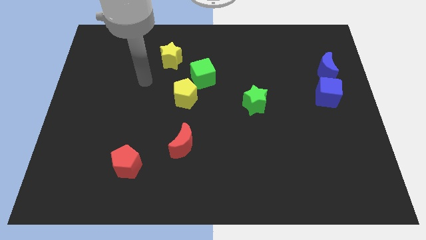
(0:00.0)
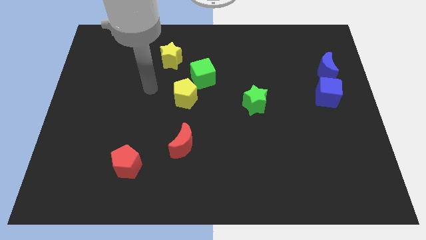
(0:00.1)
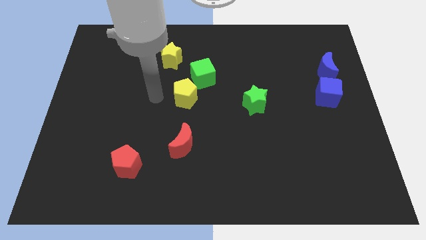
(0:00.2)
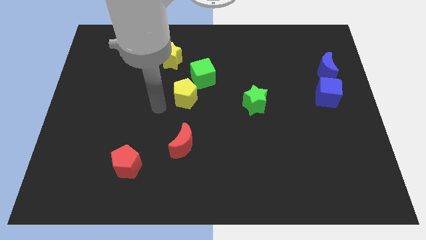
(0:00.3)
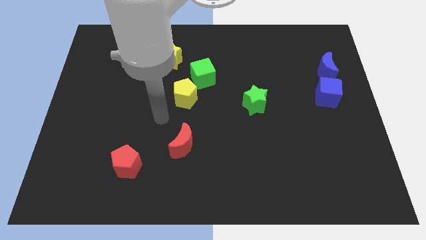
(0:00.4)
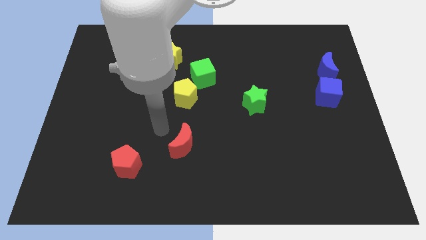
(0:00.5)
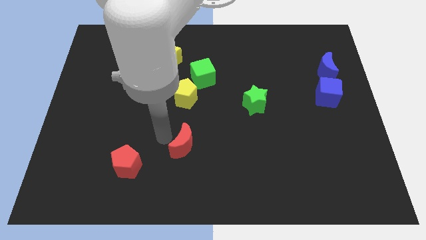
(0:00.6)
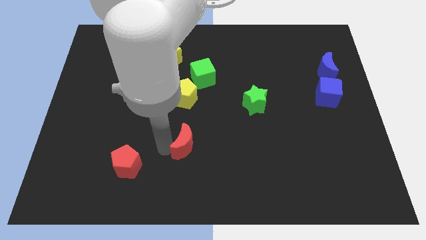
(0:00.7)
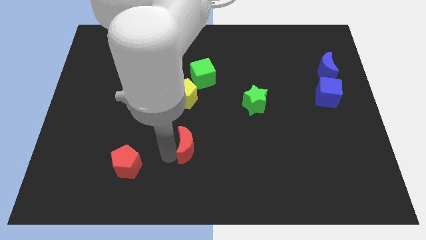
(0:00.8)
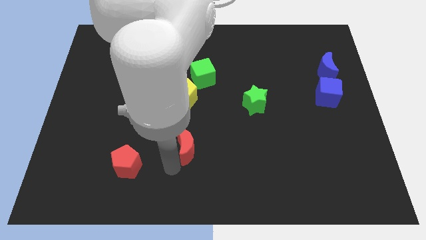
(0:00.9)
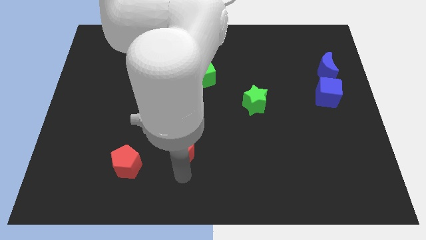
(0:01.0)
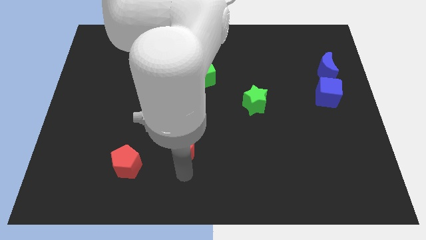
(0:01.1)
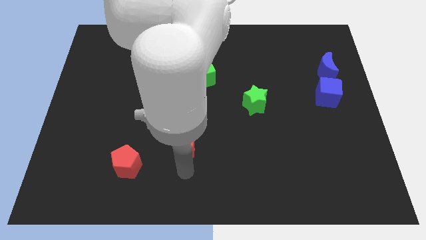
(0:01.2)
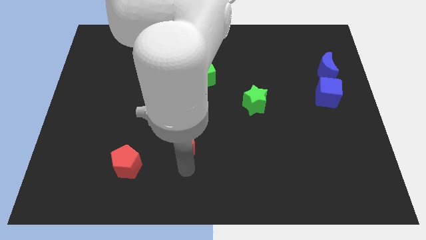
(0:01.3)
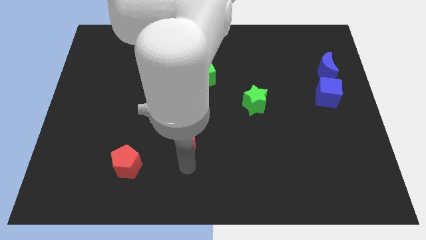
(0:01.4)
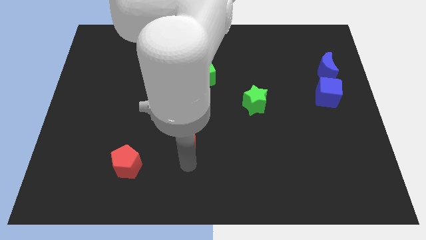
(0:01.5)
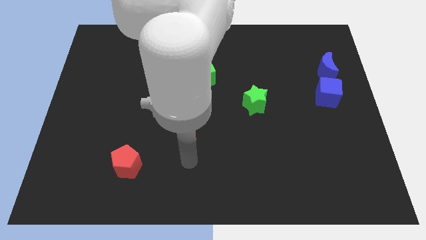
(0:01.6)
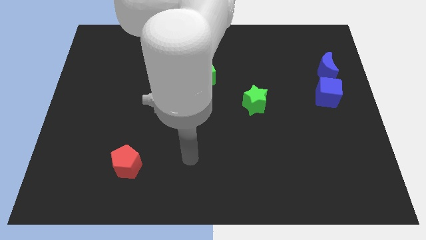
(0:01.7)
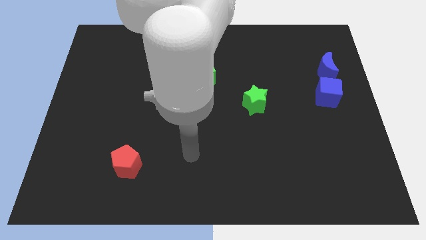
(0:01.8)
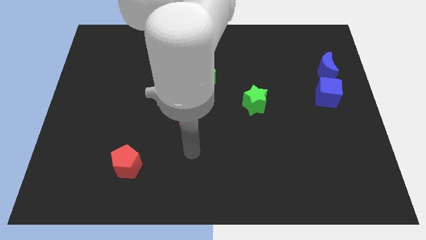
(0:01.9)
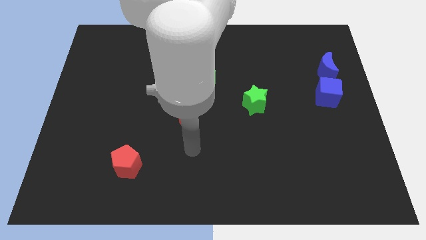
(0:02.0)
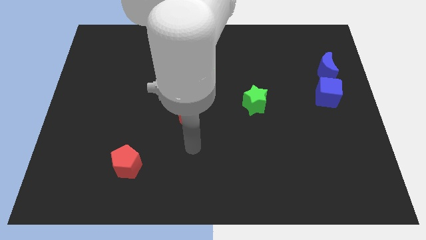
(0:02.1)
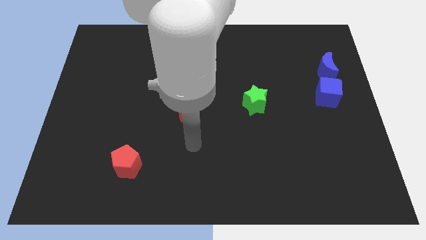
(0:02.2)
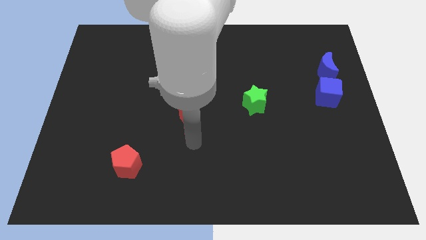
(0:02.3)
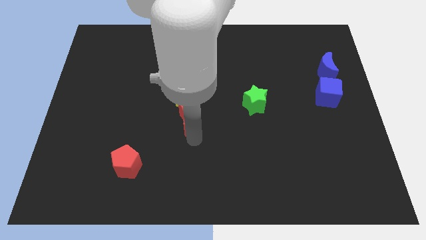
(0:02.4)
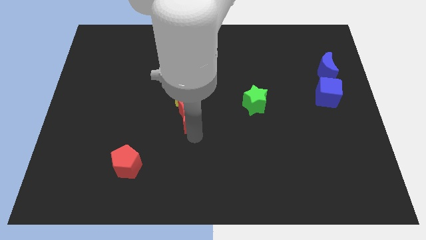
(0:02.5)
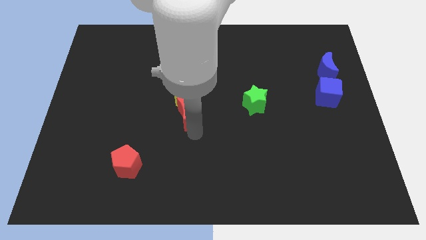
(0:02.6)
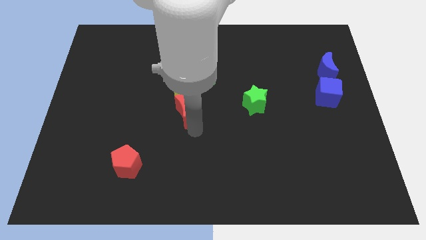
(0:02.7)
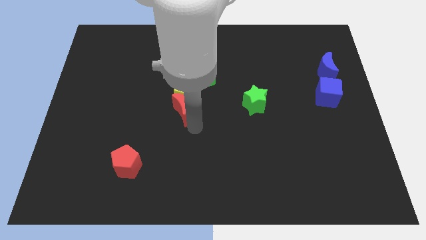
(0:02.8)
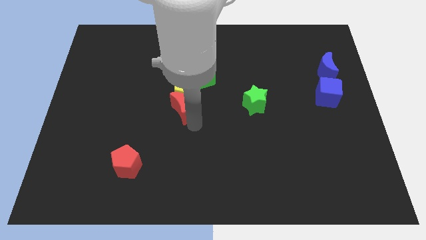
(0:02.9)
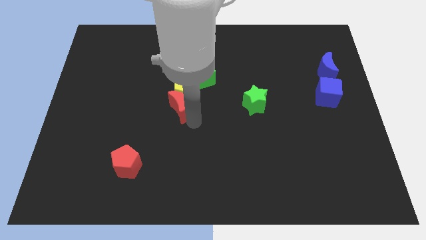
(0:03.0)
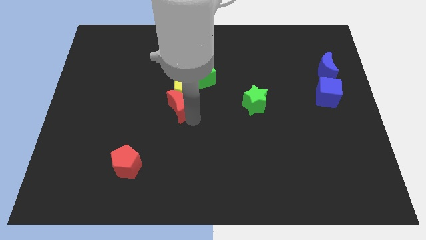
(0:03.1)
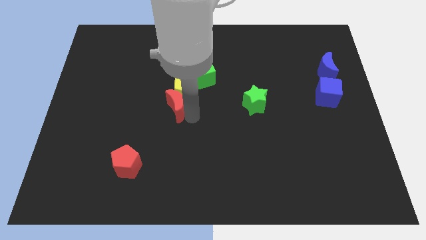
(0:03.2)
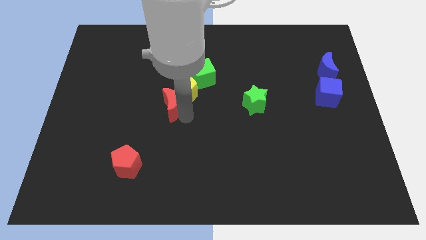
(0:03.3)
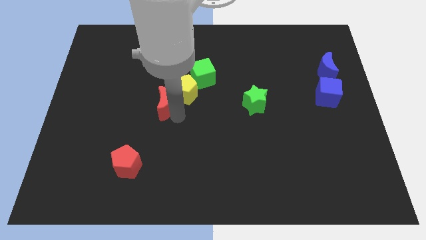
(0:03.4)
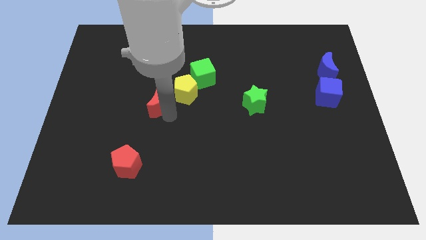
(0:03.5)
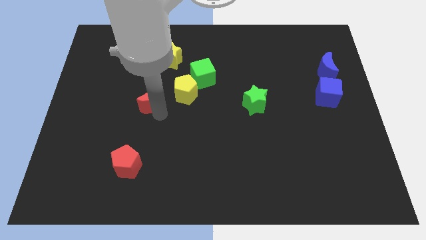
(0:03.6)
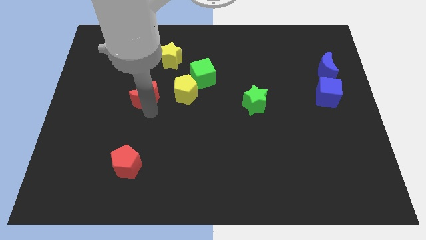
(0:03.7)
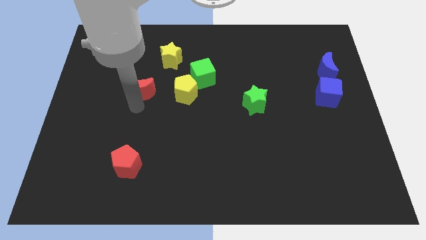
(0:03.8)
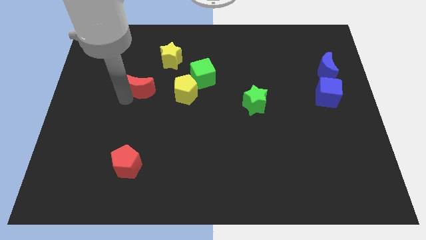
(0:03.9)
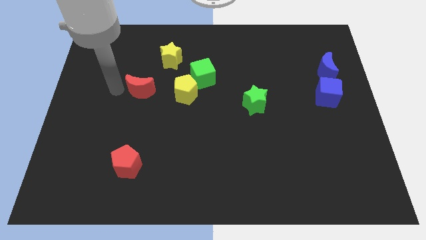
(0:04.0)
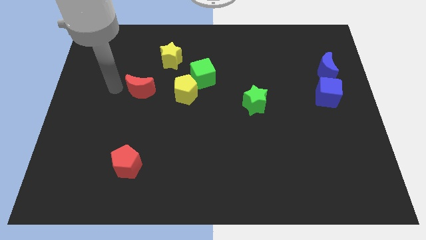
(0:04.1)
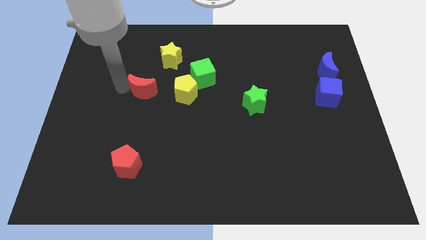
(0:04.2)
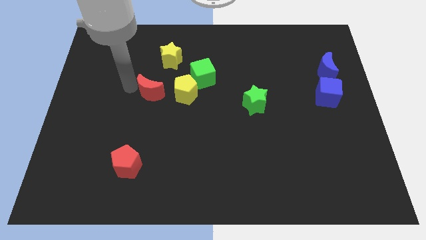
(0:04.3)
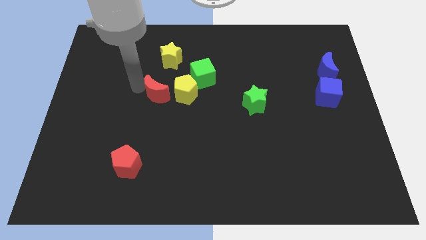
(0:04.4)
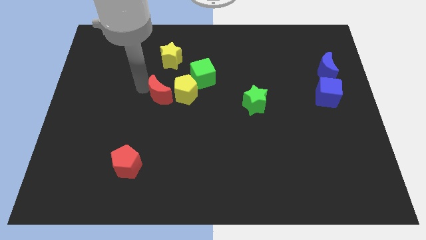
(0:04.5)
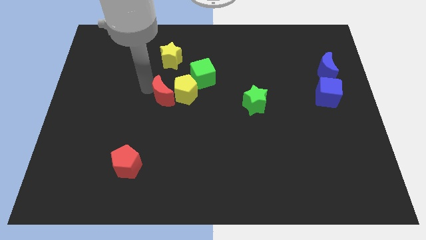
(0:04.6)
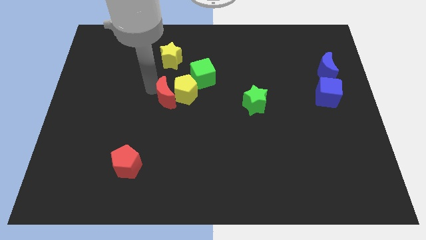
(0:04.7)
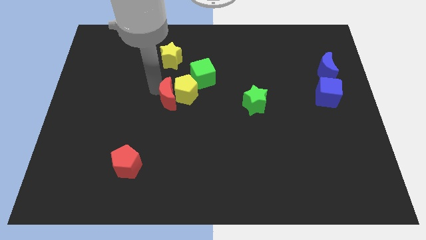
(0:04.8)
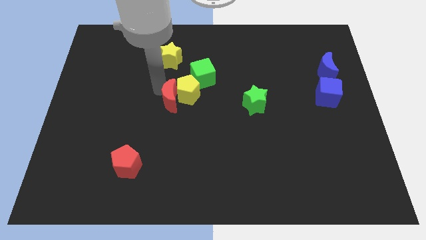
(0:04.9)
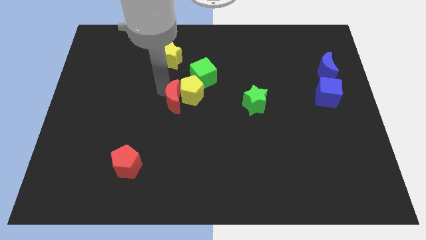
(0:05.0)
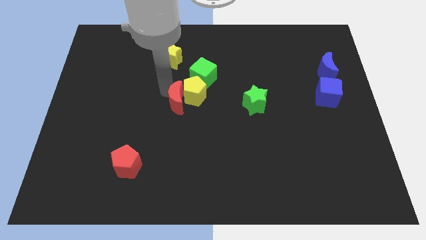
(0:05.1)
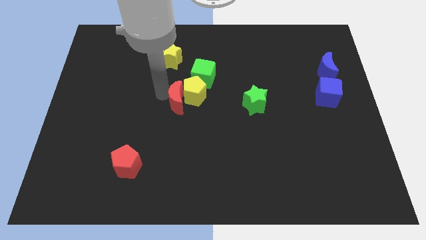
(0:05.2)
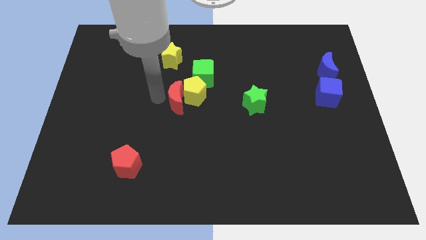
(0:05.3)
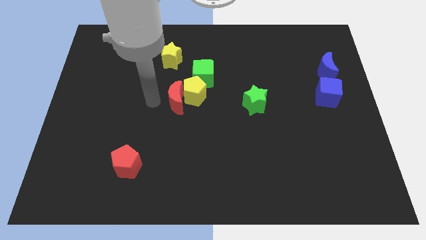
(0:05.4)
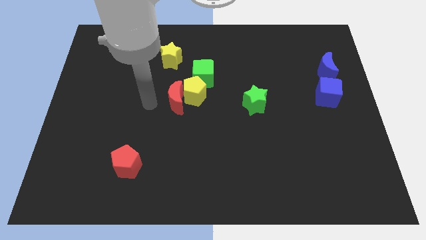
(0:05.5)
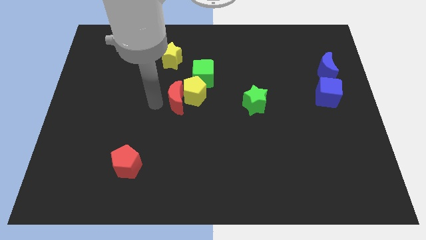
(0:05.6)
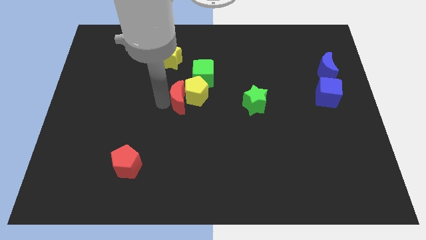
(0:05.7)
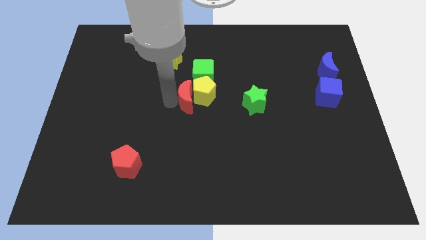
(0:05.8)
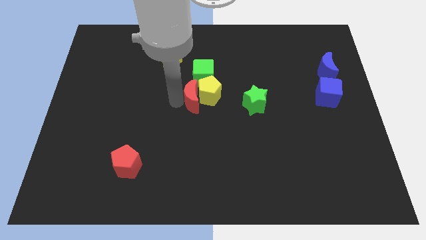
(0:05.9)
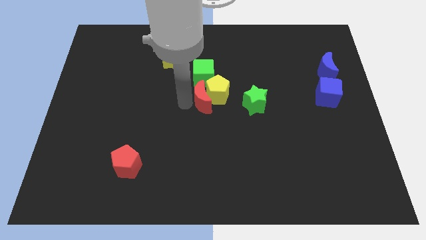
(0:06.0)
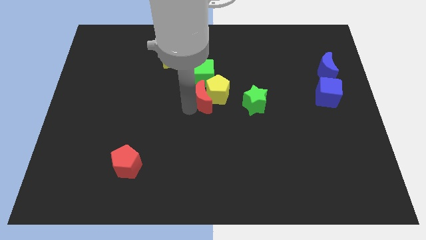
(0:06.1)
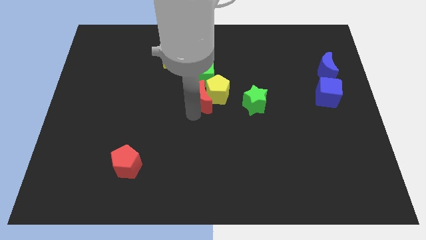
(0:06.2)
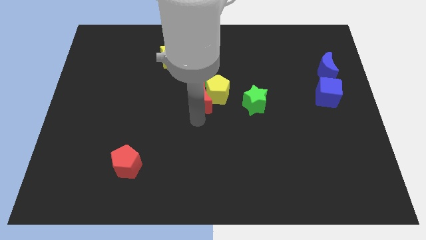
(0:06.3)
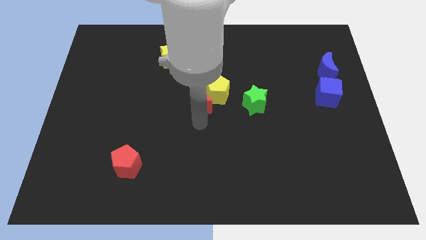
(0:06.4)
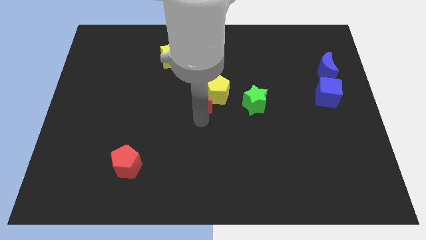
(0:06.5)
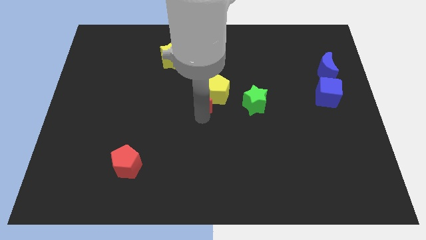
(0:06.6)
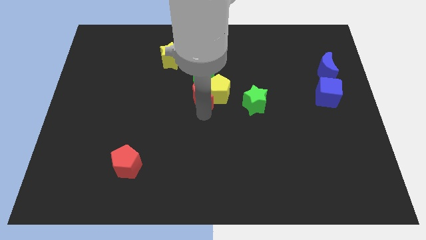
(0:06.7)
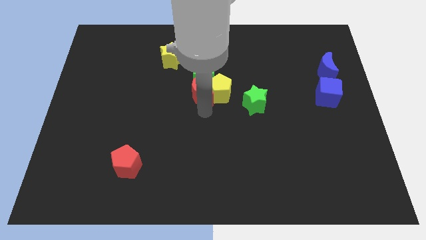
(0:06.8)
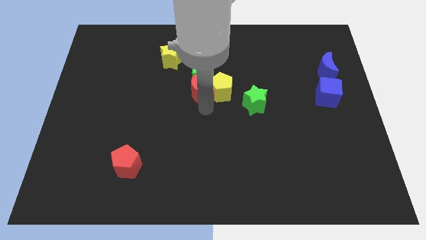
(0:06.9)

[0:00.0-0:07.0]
slide the red moon next to the green cube
